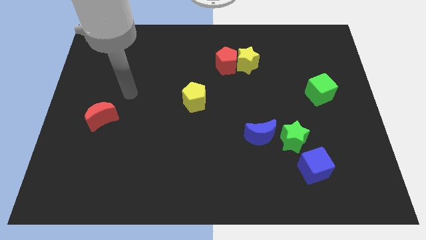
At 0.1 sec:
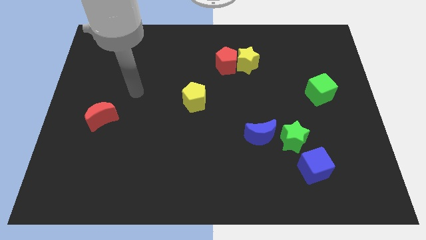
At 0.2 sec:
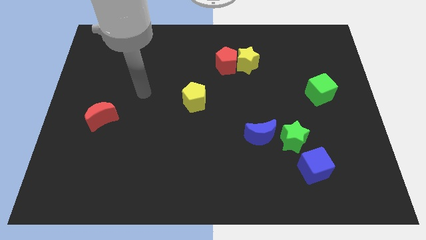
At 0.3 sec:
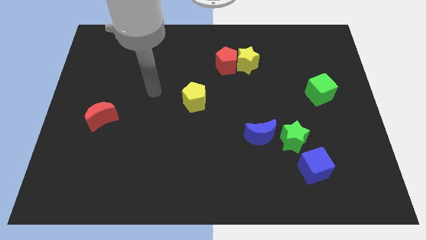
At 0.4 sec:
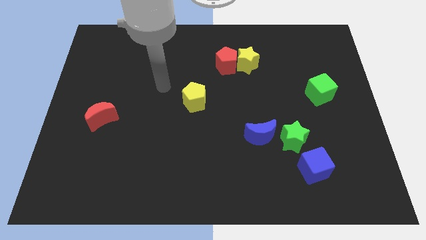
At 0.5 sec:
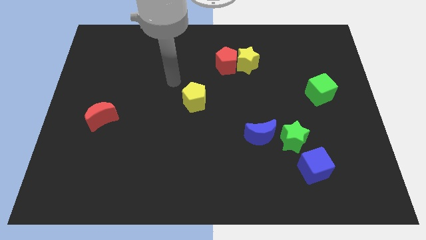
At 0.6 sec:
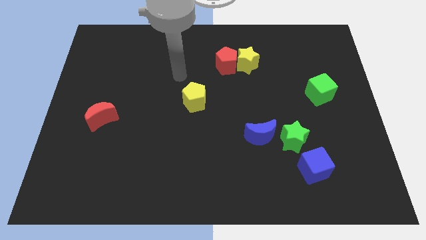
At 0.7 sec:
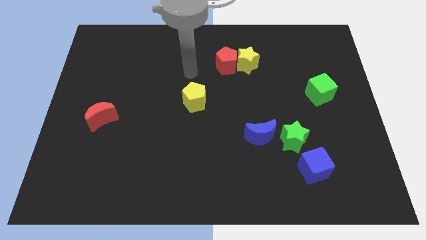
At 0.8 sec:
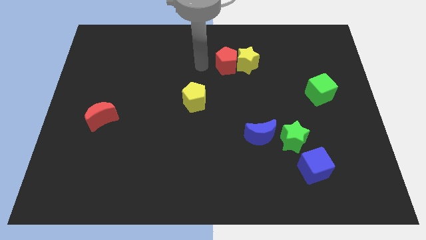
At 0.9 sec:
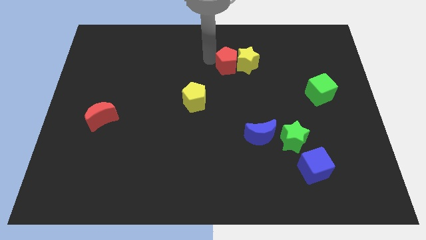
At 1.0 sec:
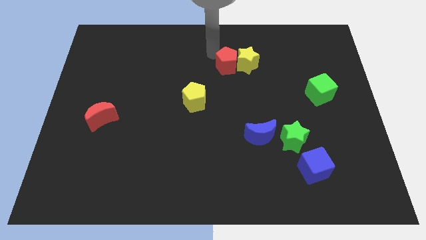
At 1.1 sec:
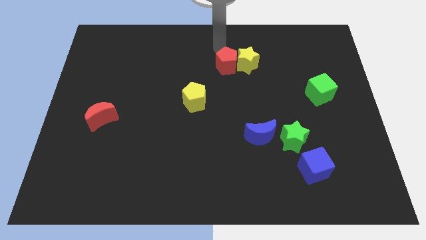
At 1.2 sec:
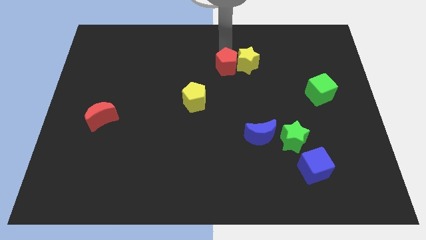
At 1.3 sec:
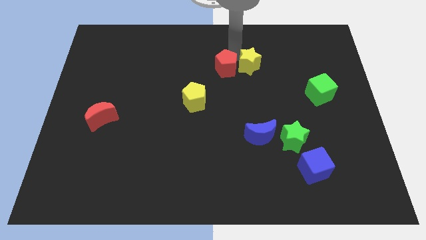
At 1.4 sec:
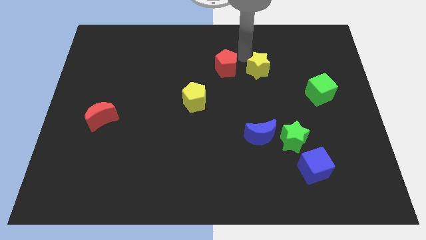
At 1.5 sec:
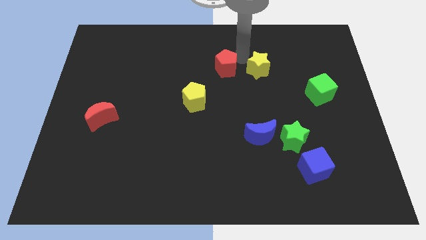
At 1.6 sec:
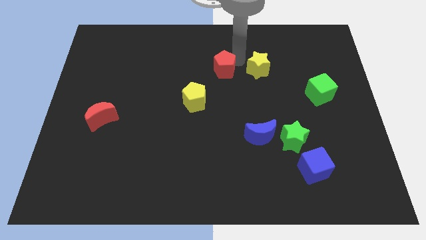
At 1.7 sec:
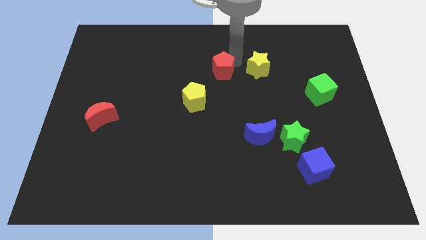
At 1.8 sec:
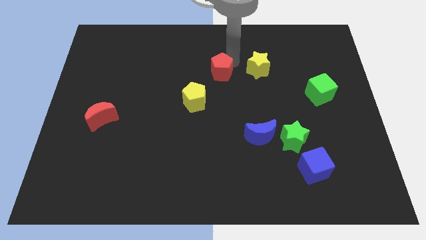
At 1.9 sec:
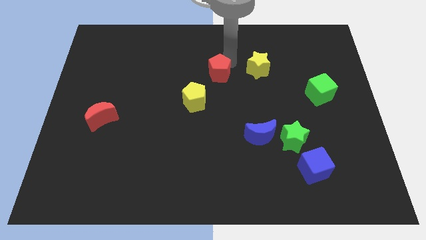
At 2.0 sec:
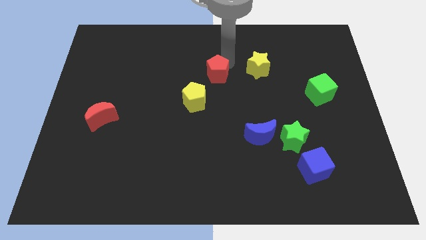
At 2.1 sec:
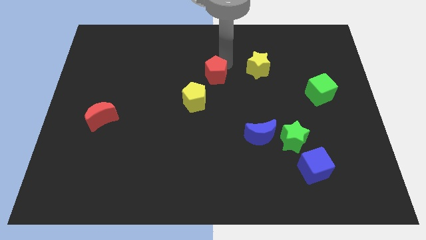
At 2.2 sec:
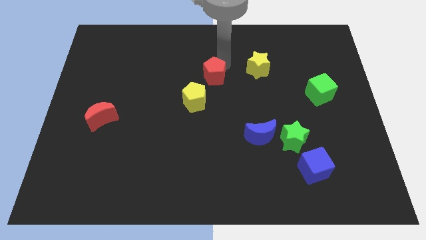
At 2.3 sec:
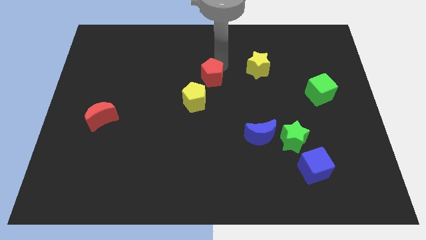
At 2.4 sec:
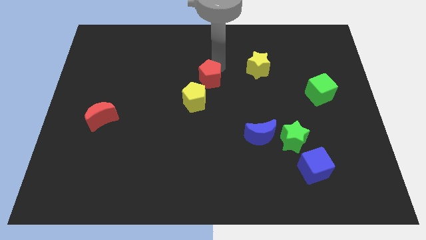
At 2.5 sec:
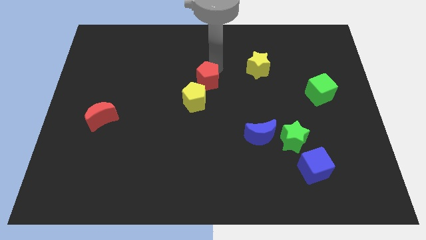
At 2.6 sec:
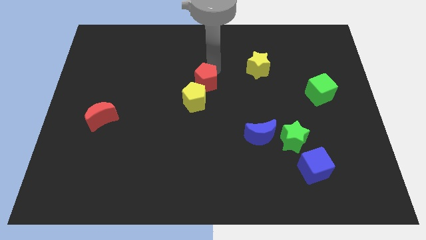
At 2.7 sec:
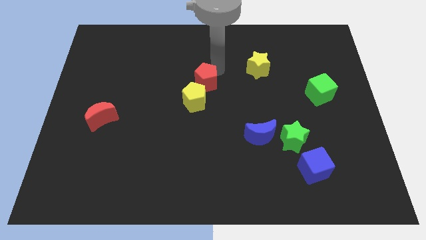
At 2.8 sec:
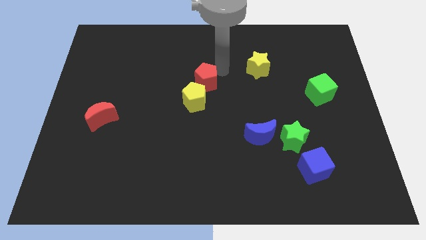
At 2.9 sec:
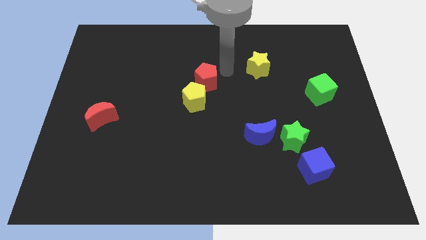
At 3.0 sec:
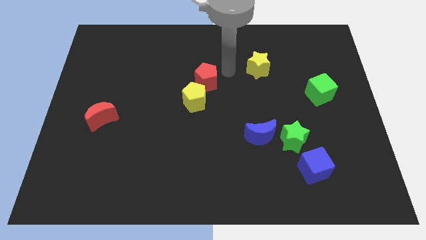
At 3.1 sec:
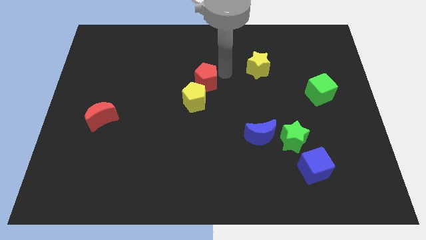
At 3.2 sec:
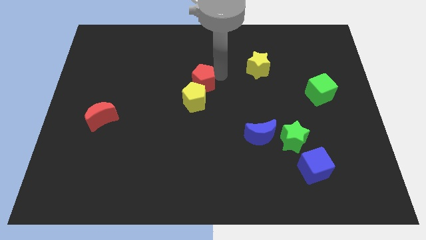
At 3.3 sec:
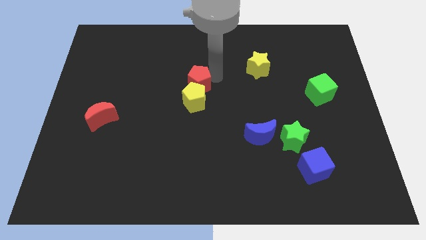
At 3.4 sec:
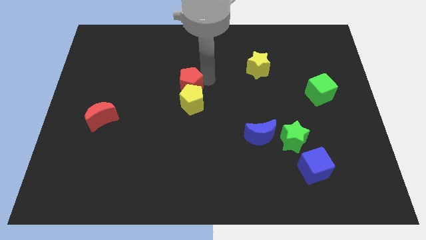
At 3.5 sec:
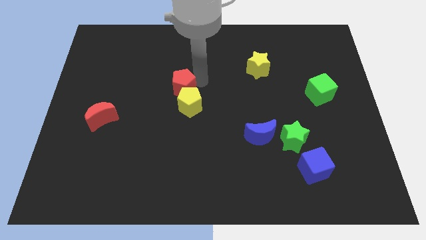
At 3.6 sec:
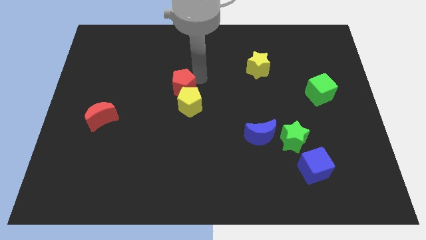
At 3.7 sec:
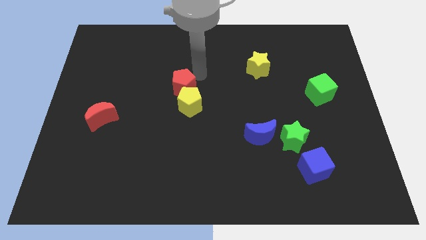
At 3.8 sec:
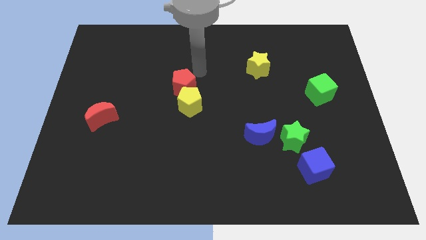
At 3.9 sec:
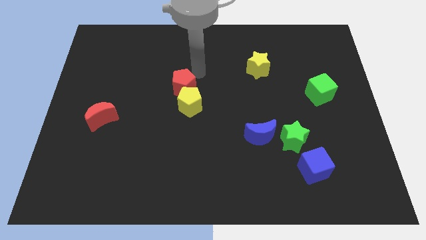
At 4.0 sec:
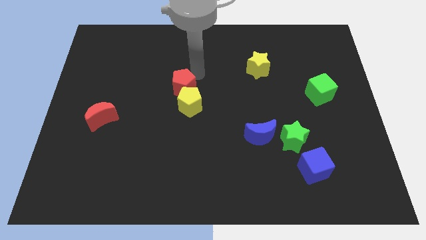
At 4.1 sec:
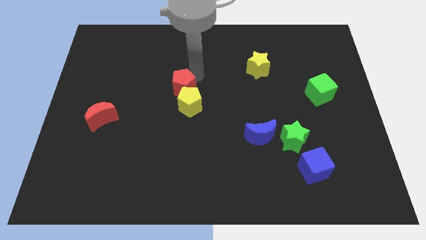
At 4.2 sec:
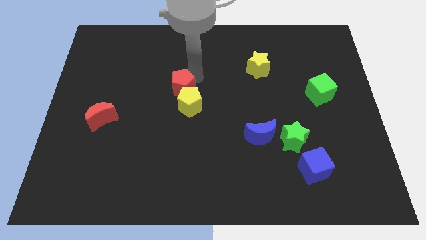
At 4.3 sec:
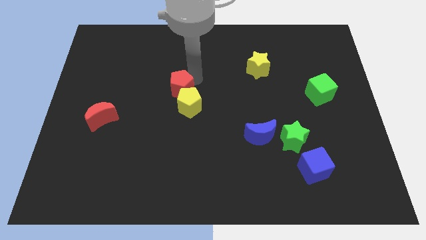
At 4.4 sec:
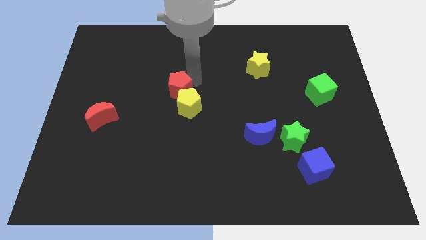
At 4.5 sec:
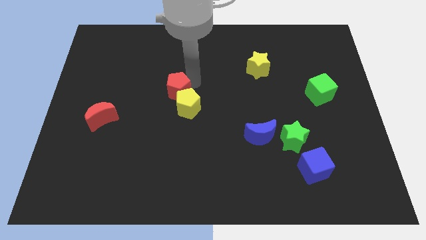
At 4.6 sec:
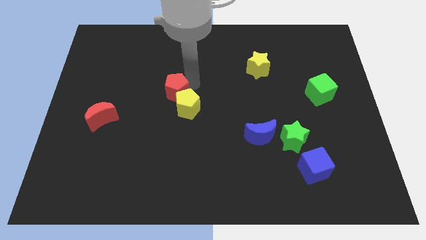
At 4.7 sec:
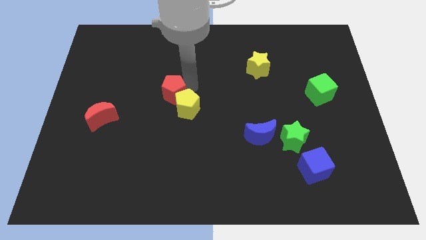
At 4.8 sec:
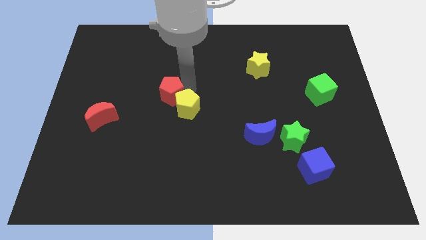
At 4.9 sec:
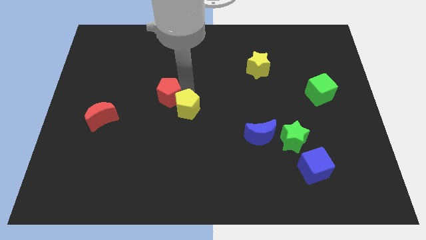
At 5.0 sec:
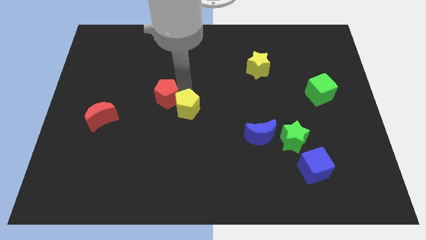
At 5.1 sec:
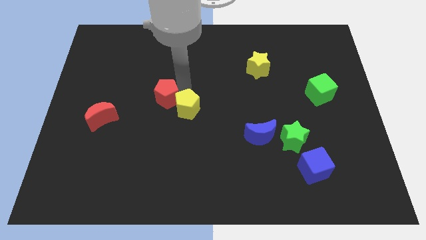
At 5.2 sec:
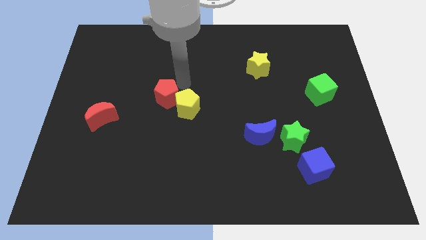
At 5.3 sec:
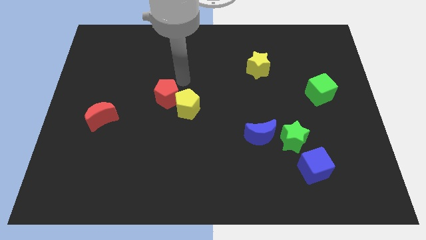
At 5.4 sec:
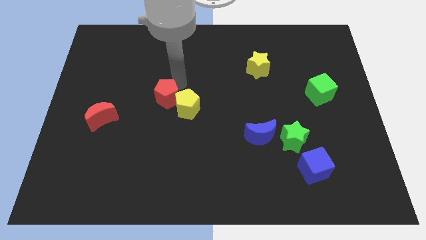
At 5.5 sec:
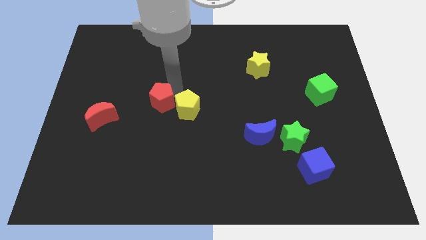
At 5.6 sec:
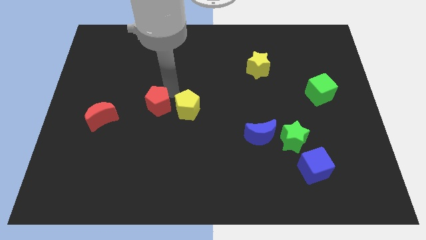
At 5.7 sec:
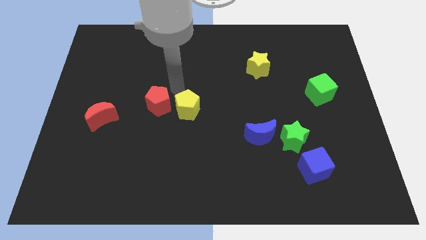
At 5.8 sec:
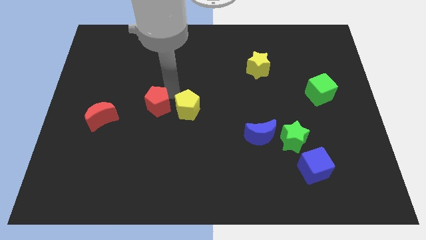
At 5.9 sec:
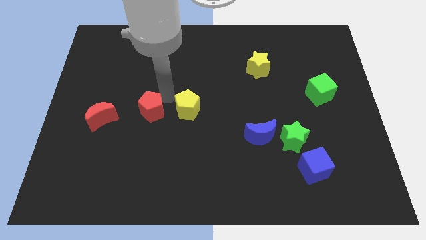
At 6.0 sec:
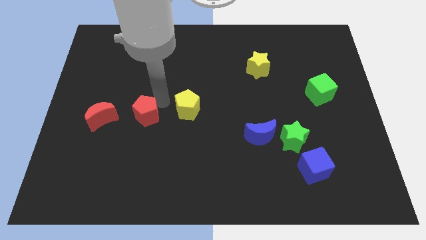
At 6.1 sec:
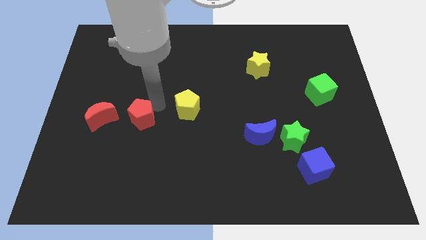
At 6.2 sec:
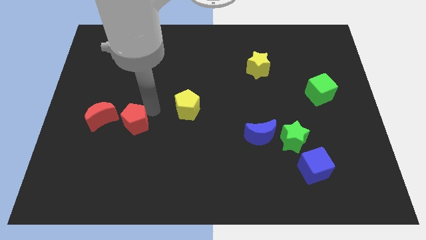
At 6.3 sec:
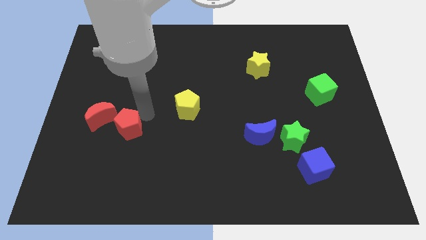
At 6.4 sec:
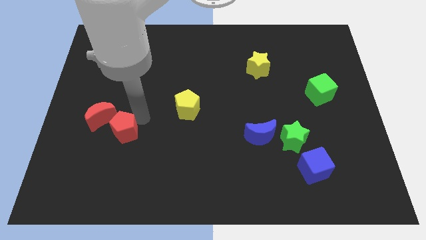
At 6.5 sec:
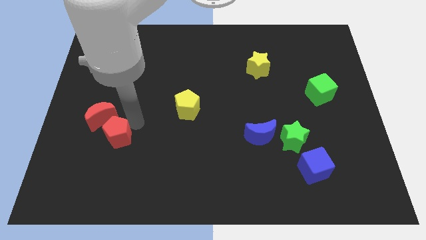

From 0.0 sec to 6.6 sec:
slide the red pentagon to the bottom side of the red moon
